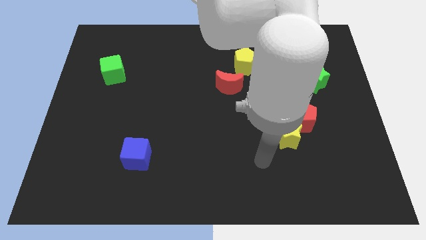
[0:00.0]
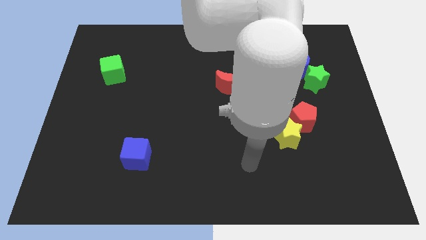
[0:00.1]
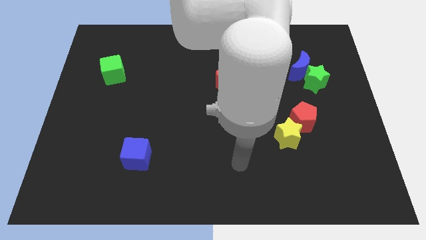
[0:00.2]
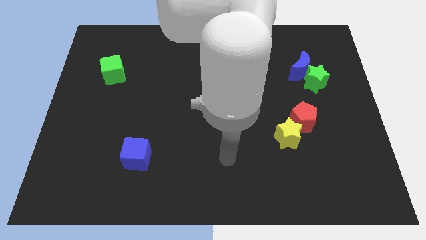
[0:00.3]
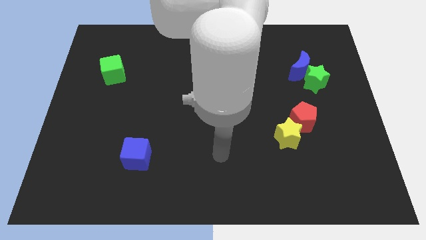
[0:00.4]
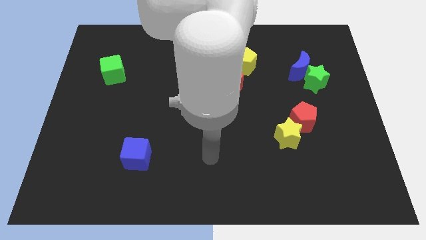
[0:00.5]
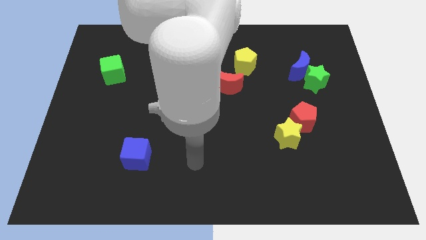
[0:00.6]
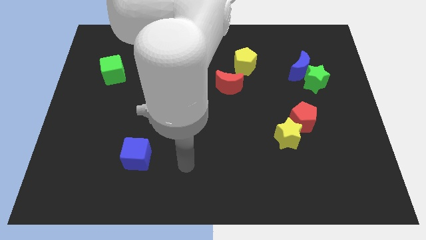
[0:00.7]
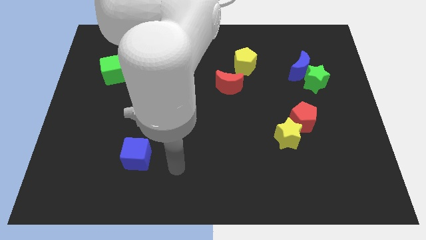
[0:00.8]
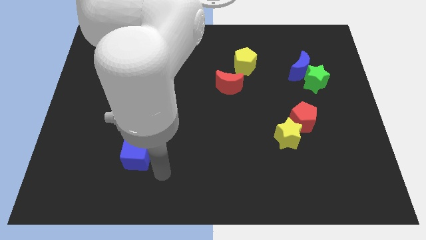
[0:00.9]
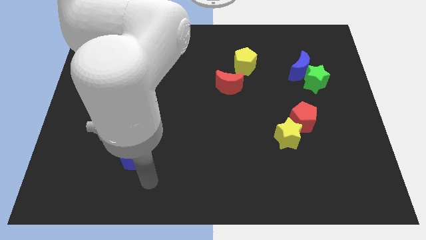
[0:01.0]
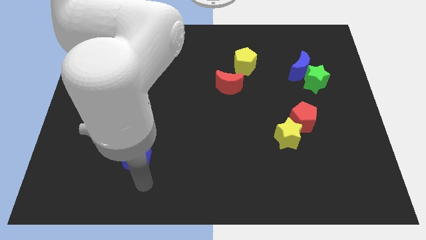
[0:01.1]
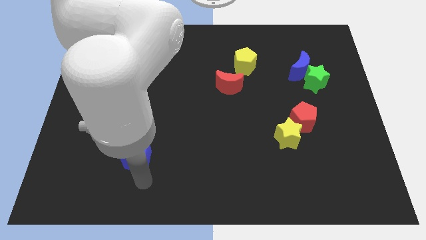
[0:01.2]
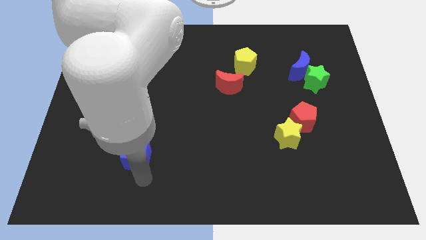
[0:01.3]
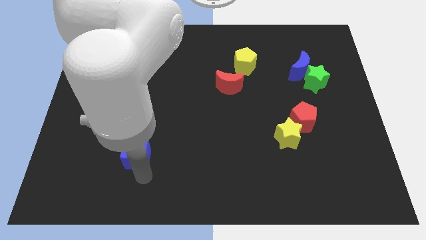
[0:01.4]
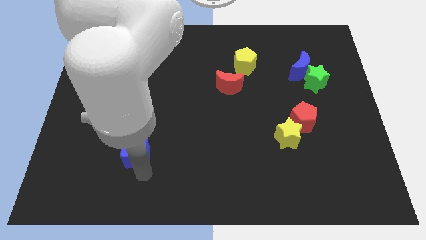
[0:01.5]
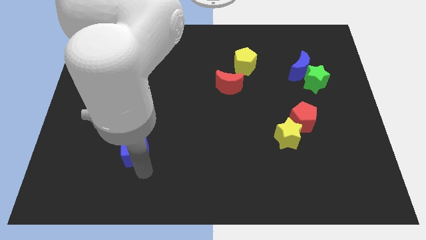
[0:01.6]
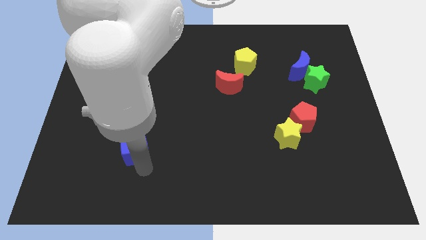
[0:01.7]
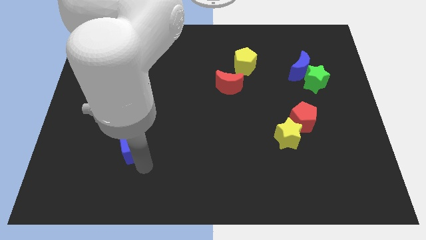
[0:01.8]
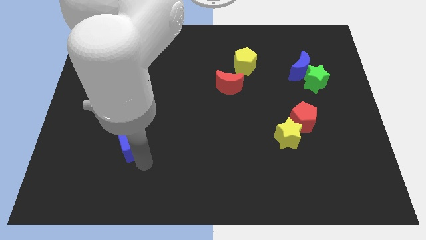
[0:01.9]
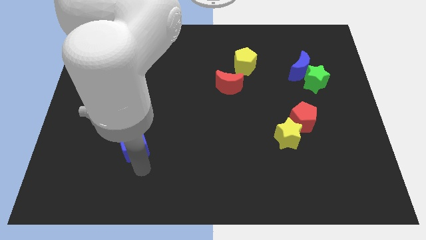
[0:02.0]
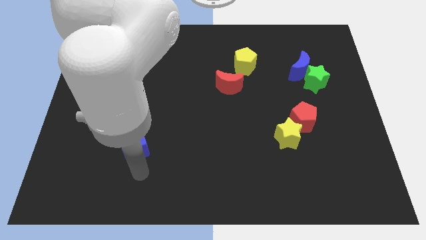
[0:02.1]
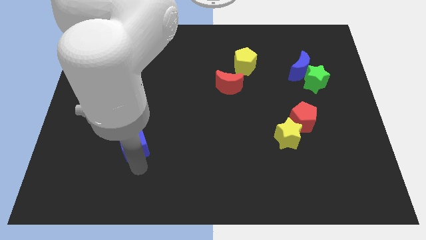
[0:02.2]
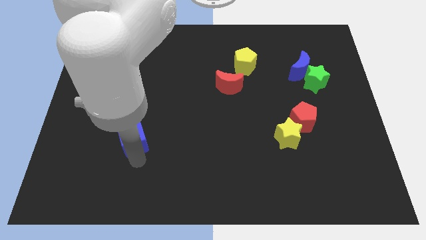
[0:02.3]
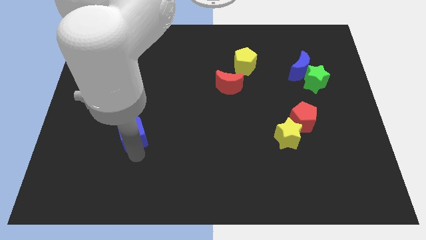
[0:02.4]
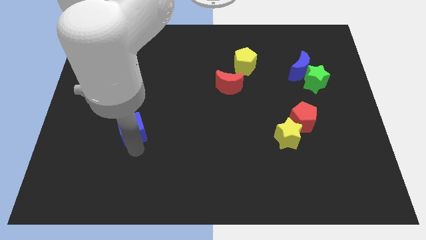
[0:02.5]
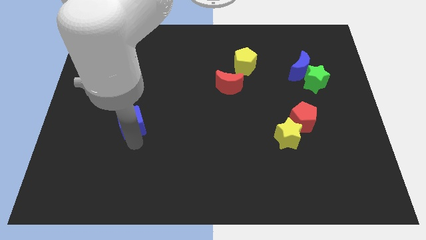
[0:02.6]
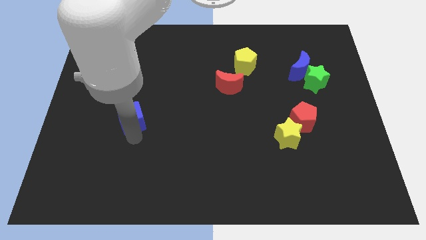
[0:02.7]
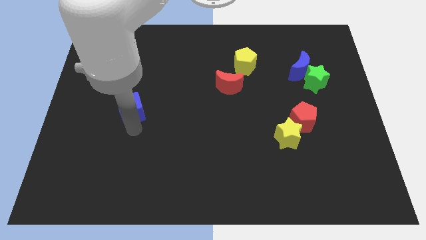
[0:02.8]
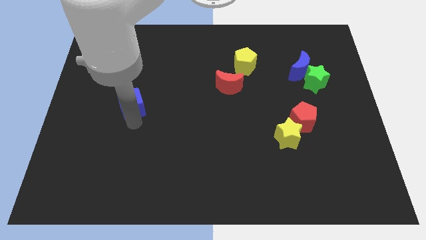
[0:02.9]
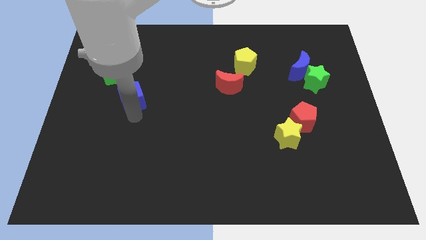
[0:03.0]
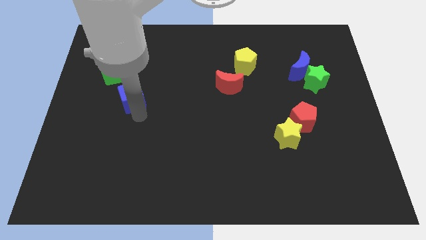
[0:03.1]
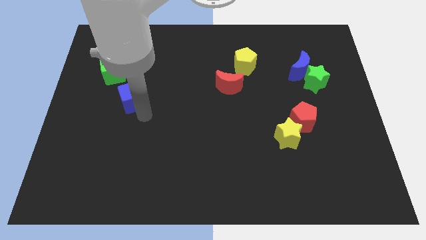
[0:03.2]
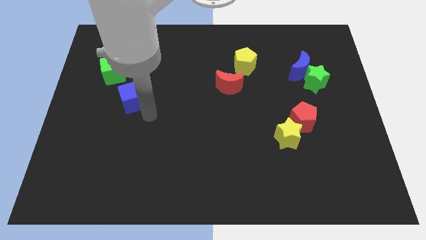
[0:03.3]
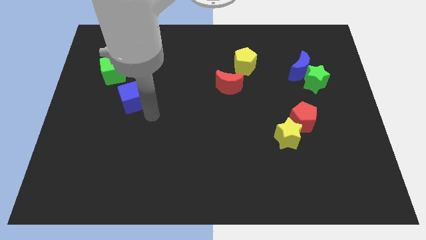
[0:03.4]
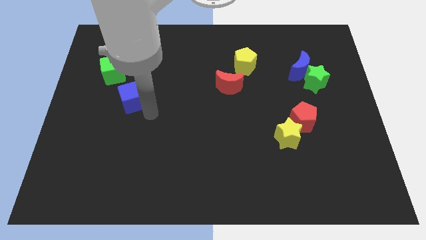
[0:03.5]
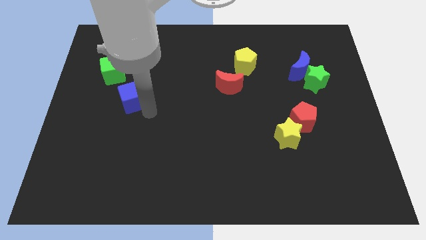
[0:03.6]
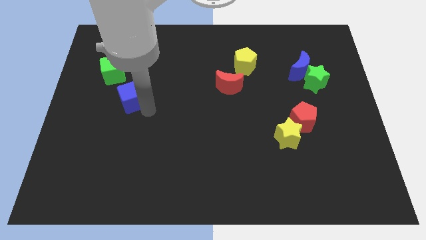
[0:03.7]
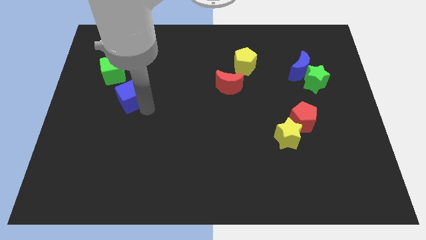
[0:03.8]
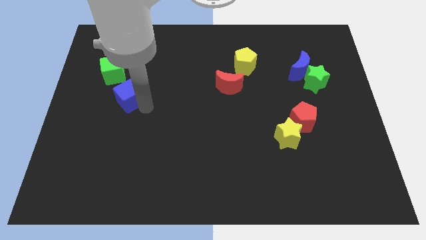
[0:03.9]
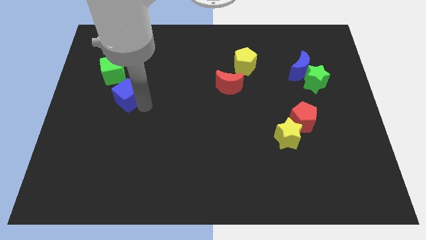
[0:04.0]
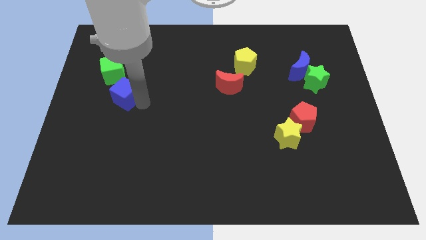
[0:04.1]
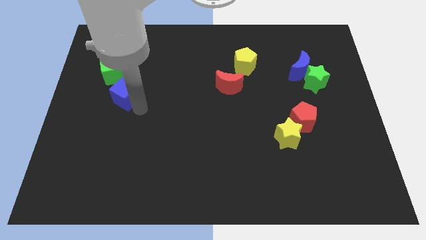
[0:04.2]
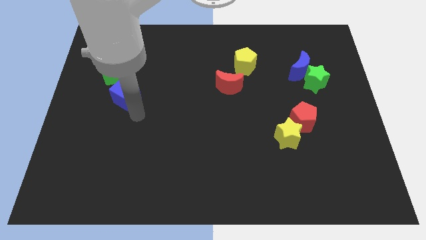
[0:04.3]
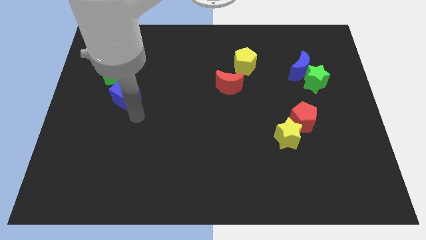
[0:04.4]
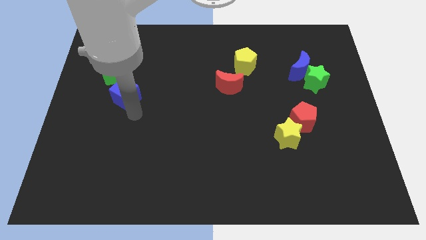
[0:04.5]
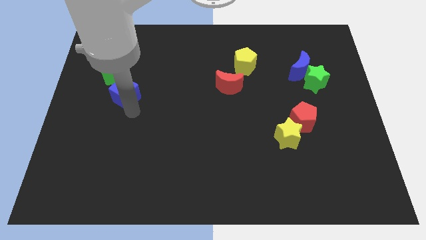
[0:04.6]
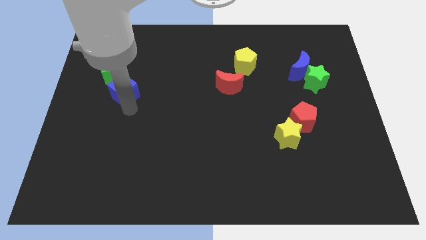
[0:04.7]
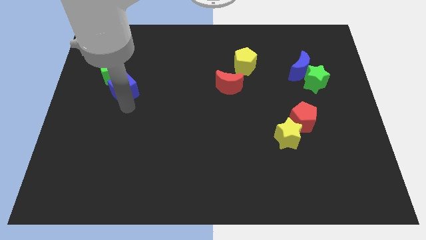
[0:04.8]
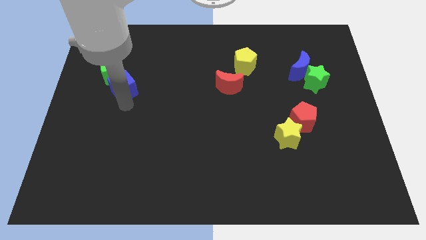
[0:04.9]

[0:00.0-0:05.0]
put the blue cube to the green cube

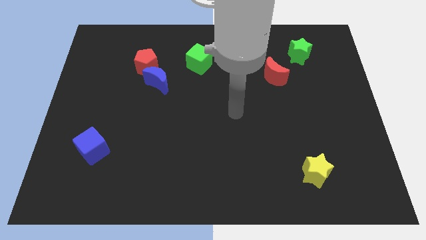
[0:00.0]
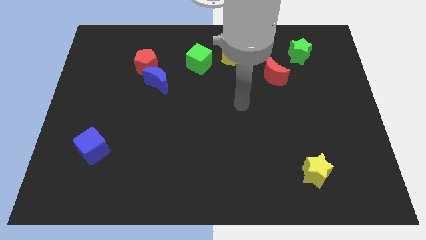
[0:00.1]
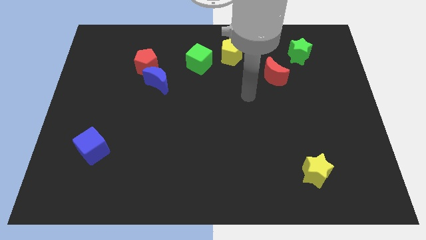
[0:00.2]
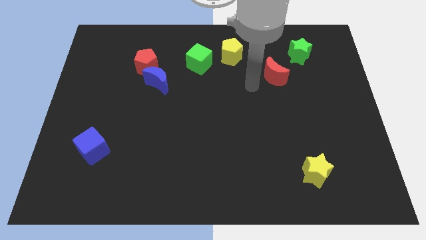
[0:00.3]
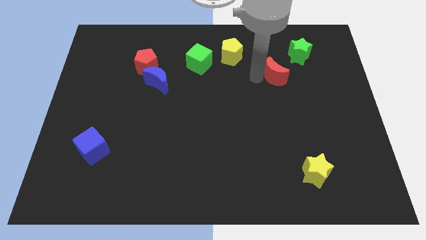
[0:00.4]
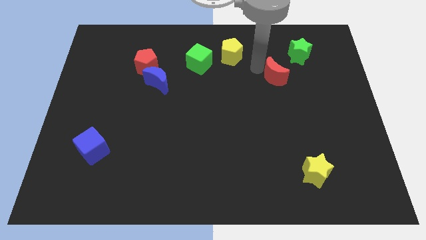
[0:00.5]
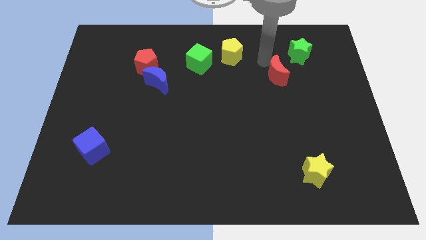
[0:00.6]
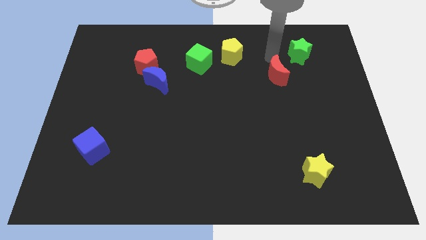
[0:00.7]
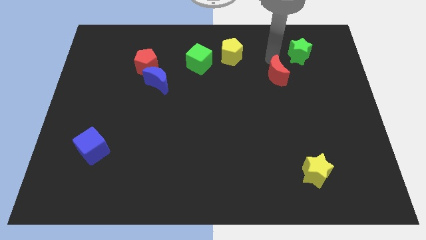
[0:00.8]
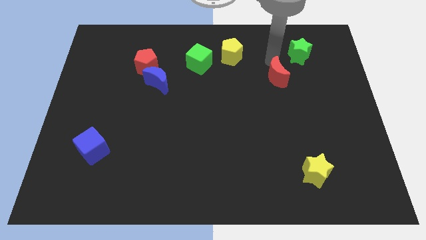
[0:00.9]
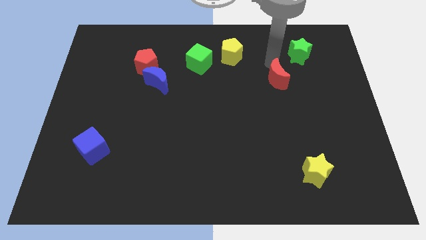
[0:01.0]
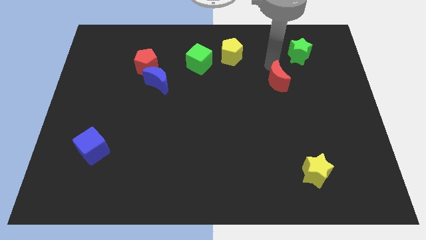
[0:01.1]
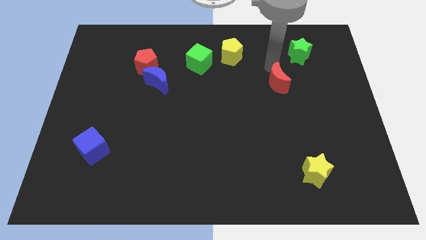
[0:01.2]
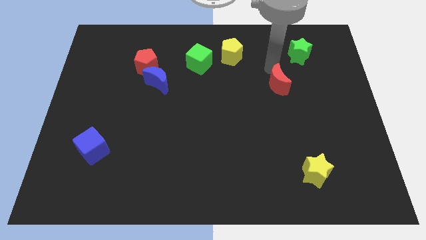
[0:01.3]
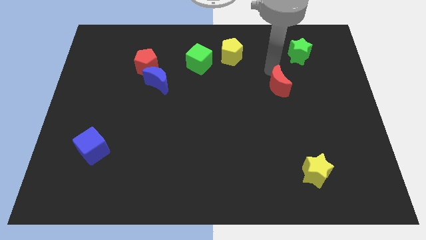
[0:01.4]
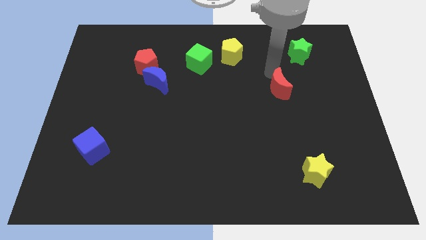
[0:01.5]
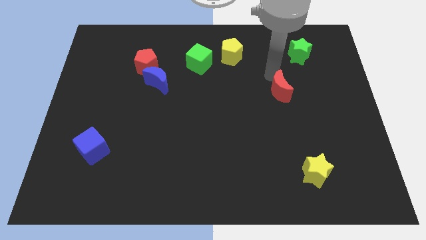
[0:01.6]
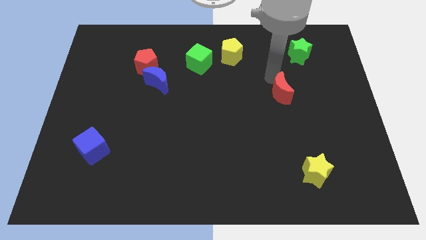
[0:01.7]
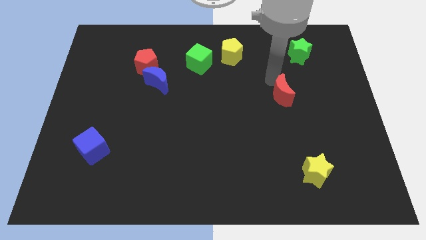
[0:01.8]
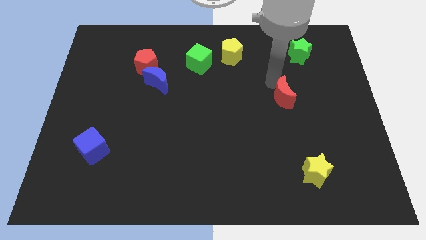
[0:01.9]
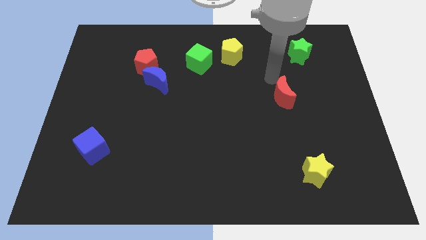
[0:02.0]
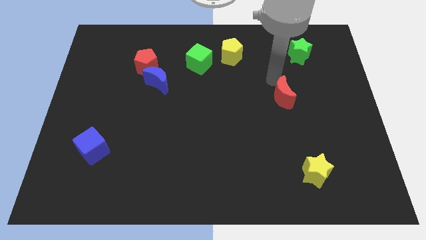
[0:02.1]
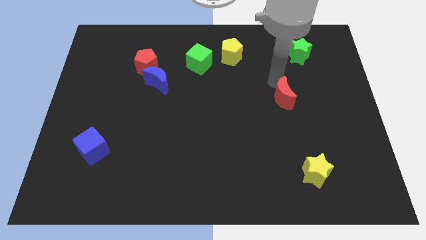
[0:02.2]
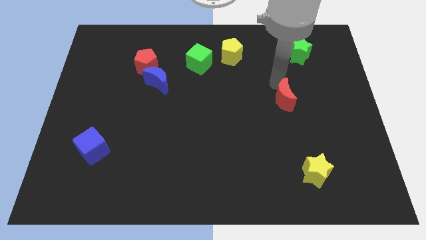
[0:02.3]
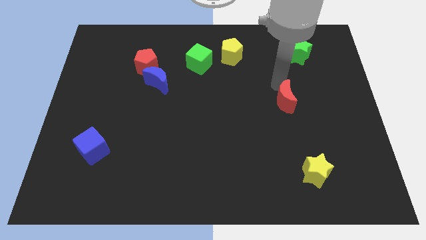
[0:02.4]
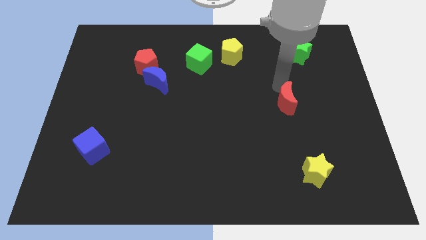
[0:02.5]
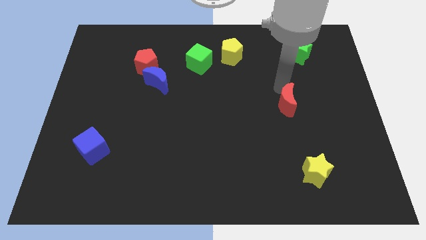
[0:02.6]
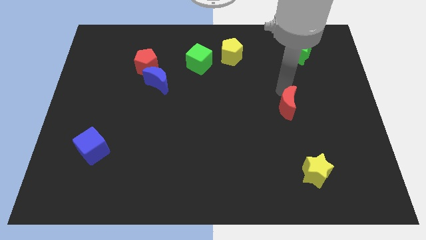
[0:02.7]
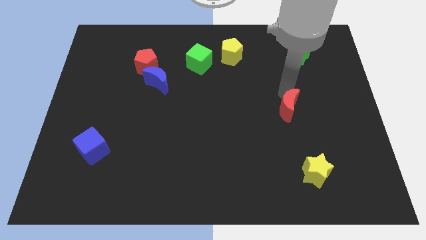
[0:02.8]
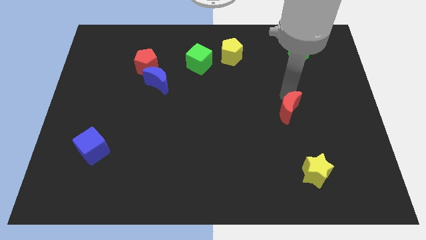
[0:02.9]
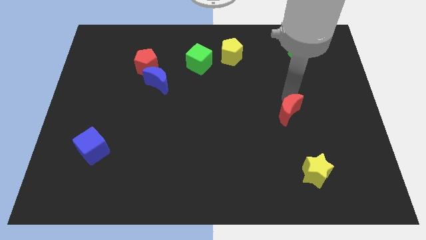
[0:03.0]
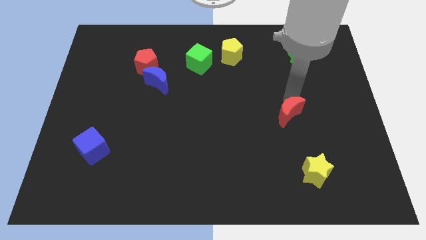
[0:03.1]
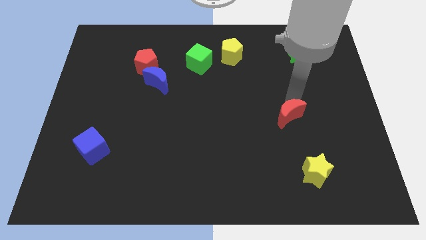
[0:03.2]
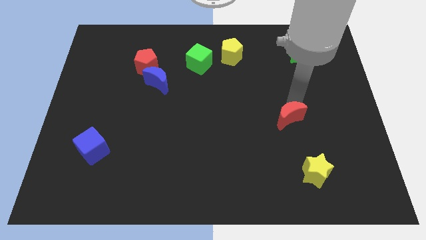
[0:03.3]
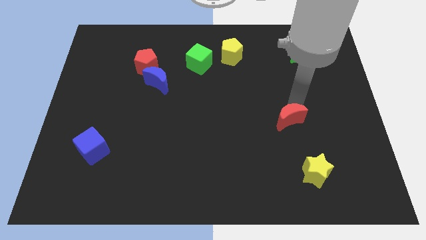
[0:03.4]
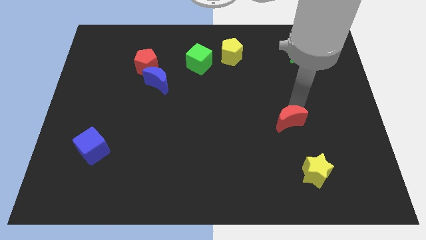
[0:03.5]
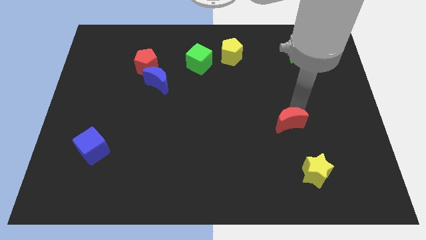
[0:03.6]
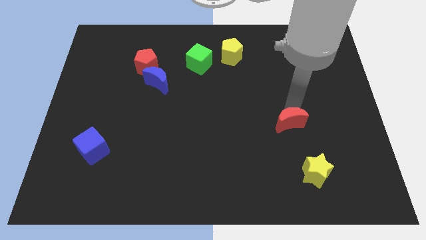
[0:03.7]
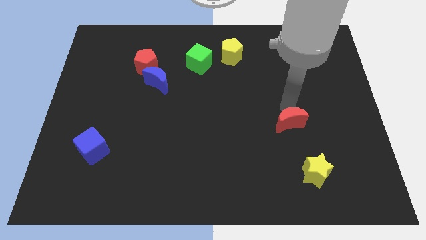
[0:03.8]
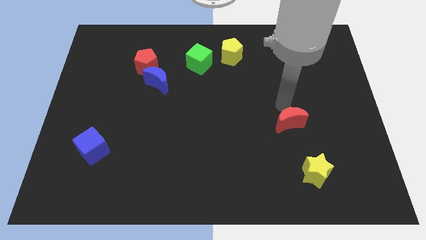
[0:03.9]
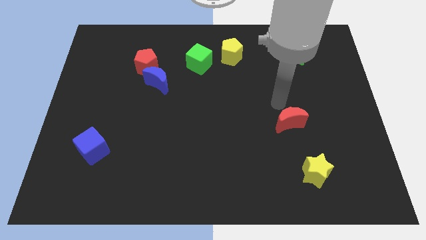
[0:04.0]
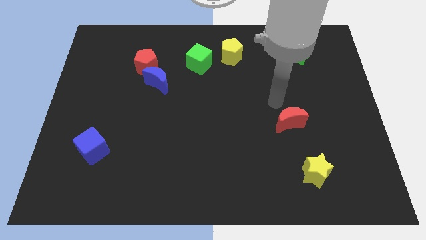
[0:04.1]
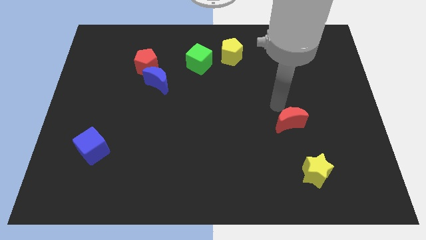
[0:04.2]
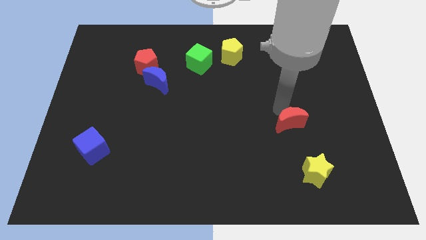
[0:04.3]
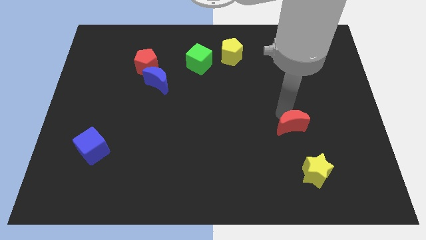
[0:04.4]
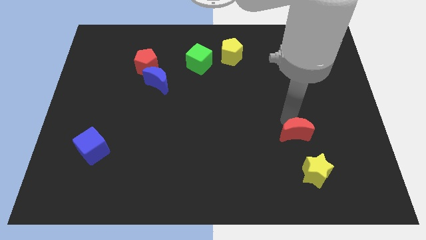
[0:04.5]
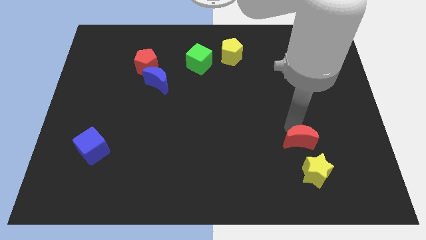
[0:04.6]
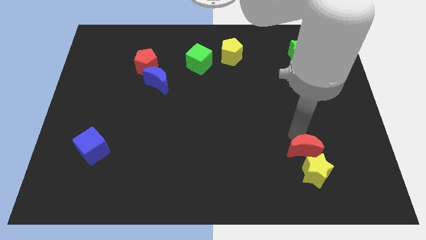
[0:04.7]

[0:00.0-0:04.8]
put the red moon to the yellow star
